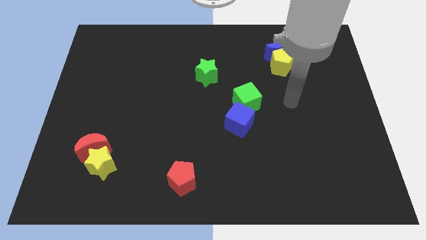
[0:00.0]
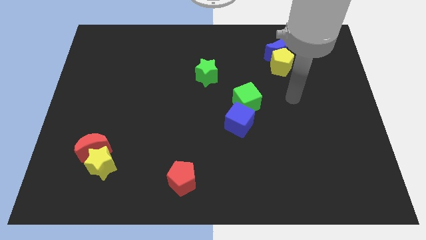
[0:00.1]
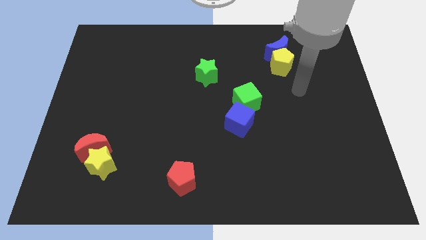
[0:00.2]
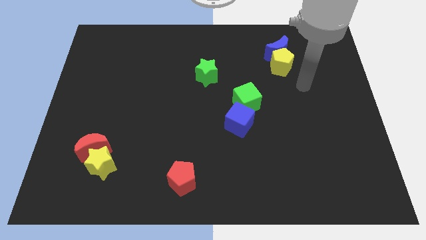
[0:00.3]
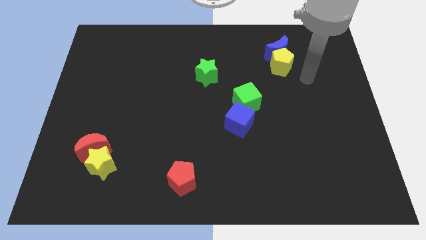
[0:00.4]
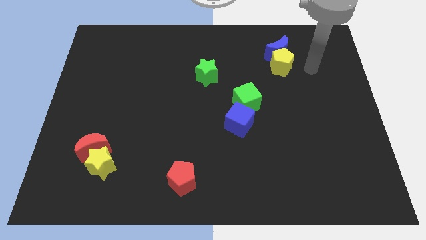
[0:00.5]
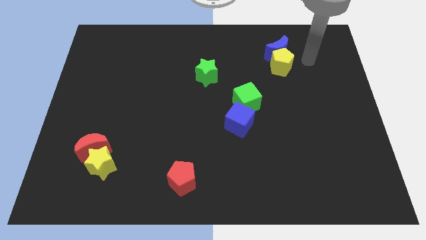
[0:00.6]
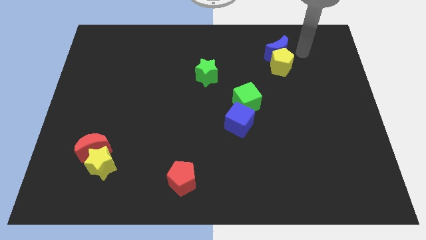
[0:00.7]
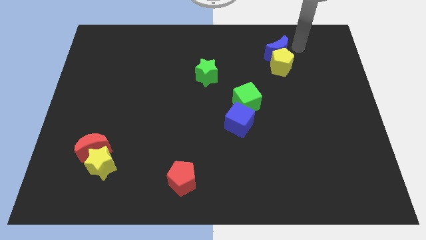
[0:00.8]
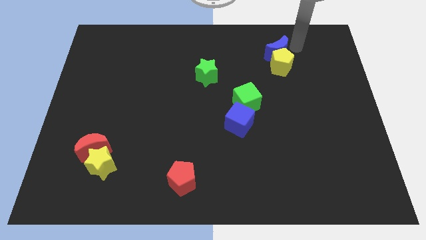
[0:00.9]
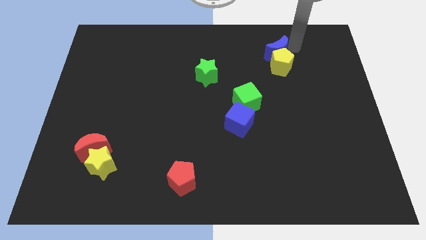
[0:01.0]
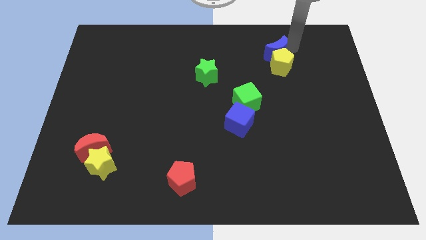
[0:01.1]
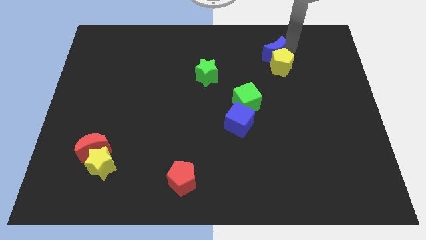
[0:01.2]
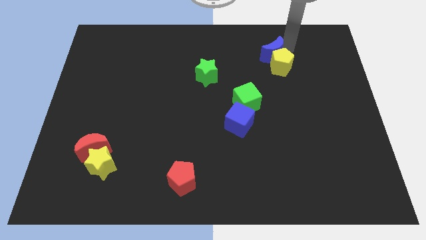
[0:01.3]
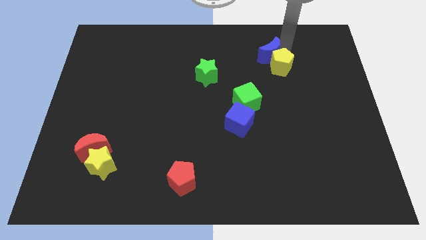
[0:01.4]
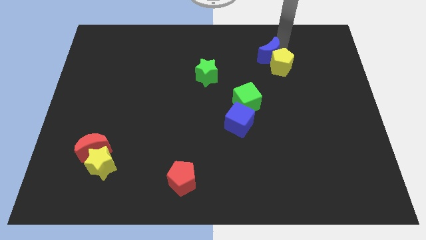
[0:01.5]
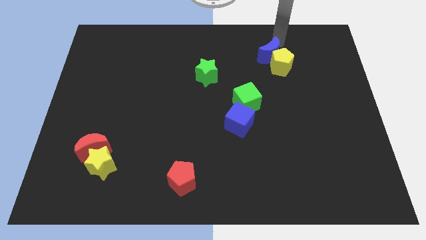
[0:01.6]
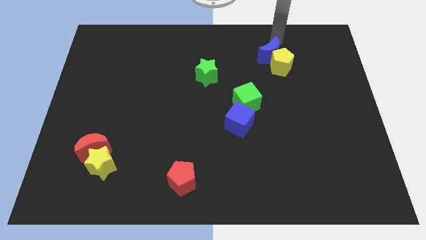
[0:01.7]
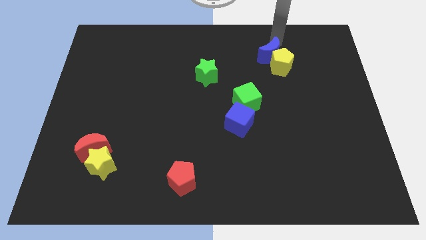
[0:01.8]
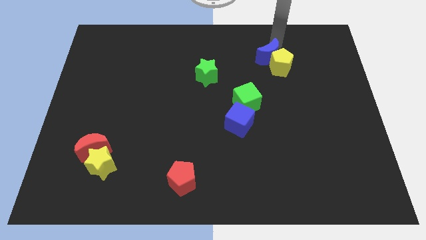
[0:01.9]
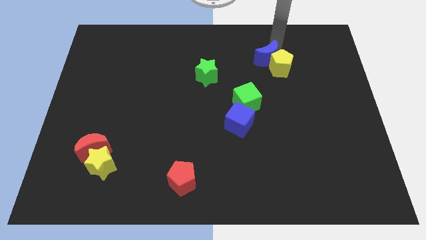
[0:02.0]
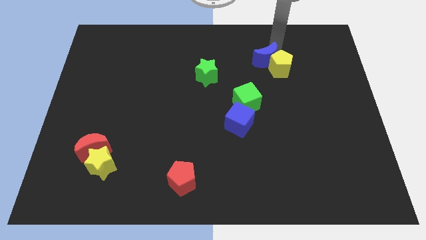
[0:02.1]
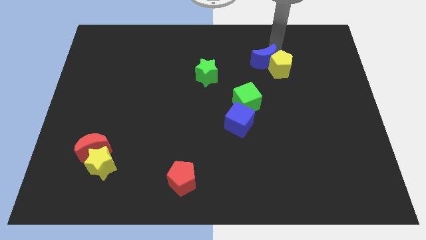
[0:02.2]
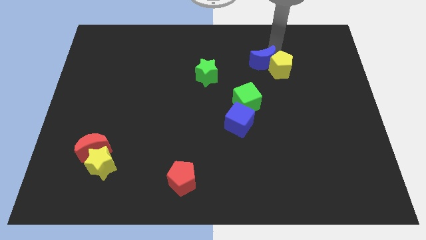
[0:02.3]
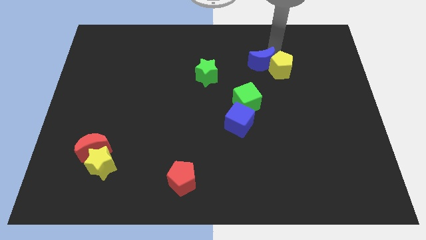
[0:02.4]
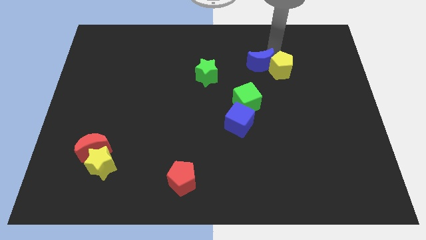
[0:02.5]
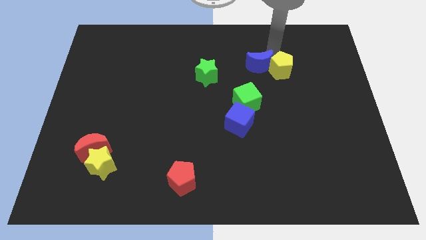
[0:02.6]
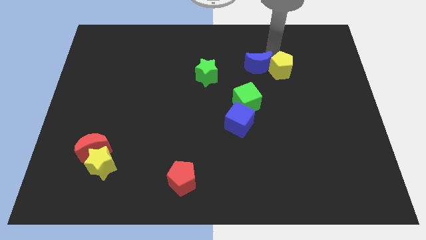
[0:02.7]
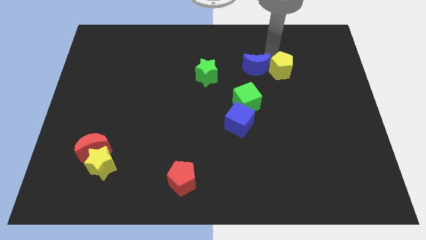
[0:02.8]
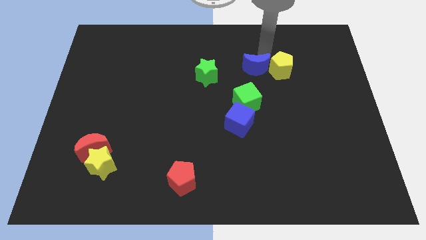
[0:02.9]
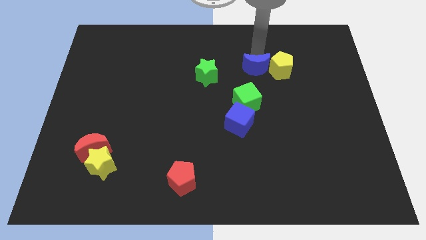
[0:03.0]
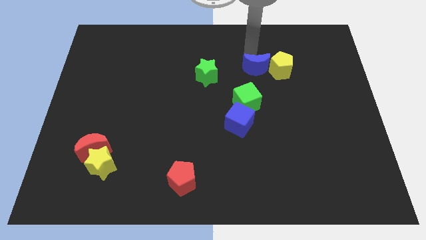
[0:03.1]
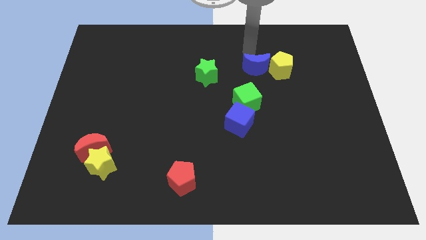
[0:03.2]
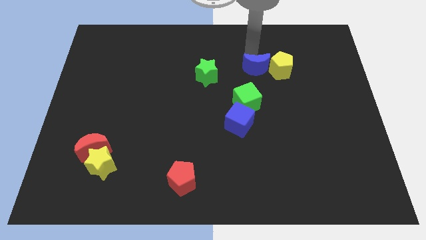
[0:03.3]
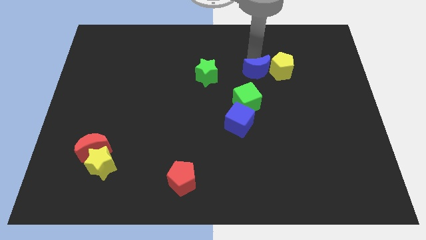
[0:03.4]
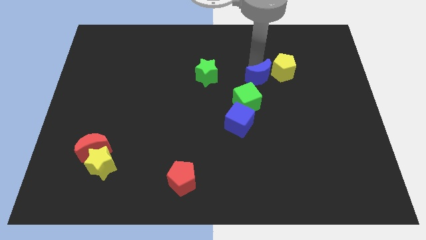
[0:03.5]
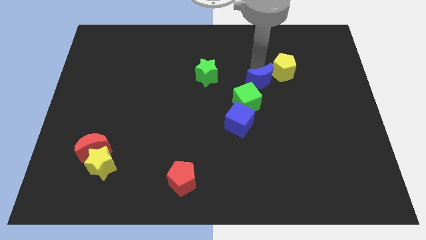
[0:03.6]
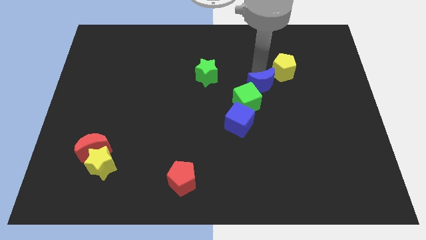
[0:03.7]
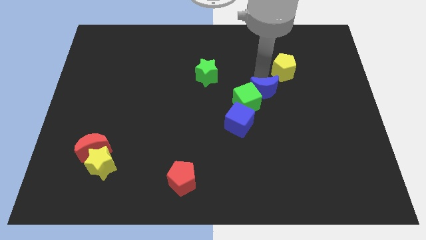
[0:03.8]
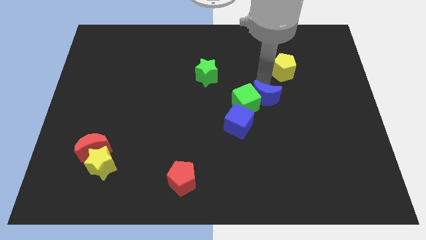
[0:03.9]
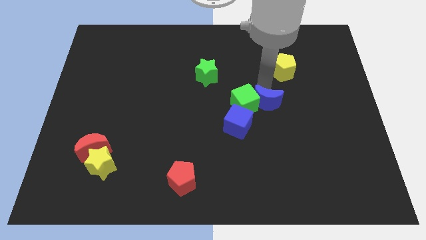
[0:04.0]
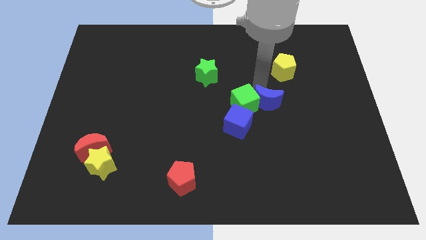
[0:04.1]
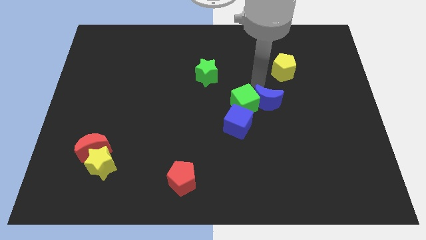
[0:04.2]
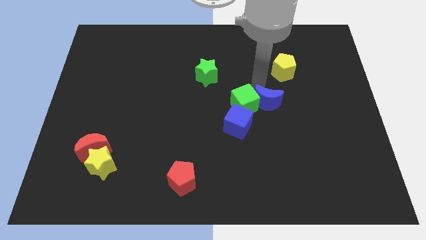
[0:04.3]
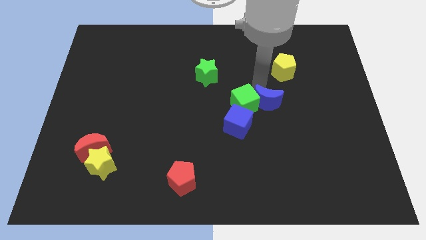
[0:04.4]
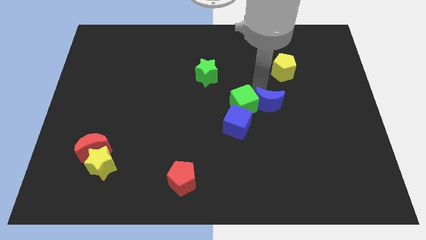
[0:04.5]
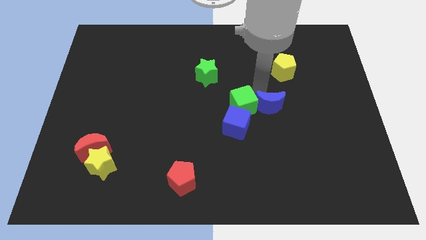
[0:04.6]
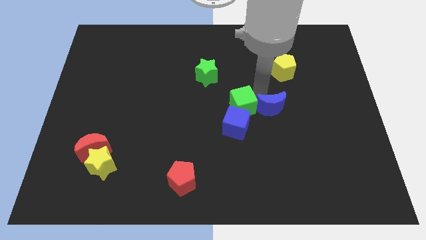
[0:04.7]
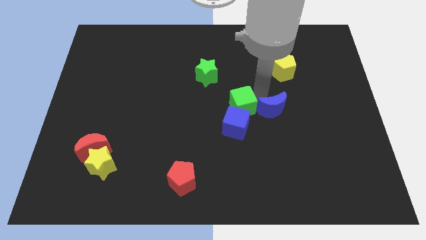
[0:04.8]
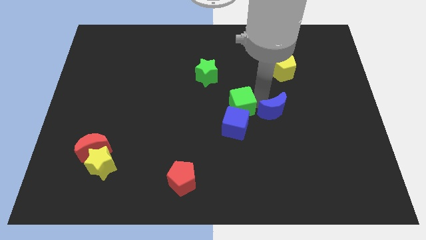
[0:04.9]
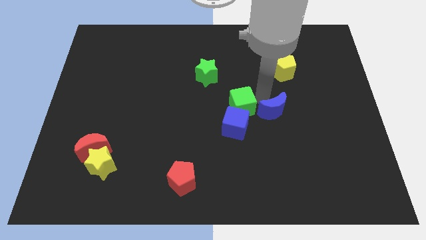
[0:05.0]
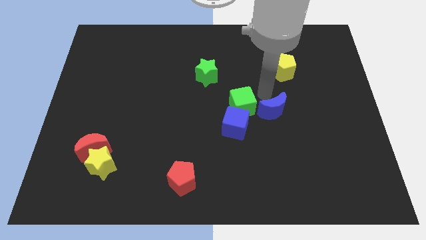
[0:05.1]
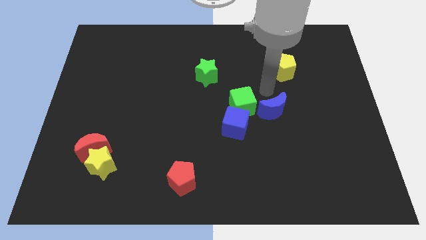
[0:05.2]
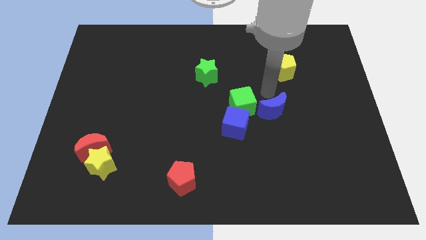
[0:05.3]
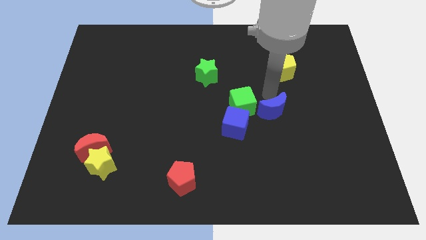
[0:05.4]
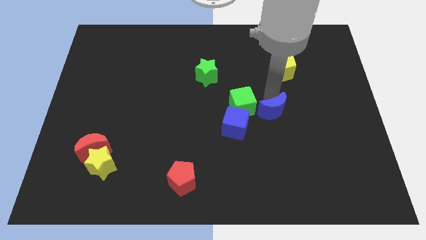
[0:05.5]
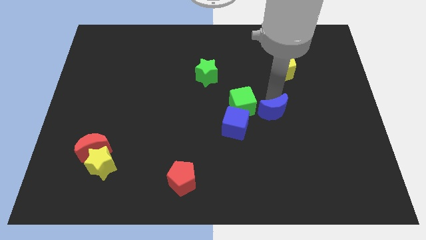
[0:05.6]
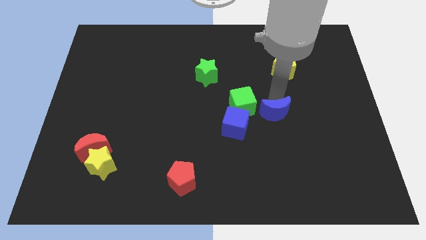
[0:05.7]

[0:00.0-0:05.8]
push the blue moon downwards

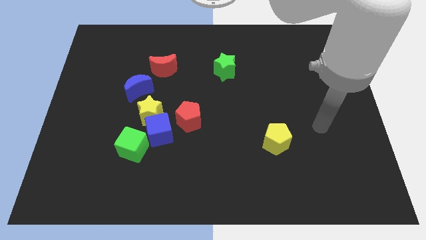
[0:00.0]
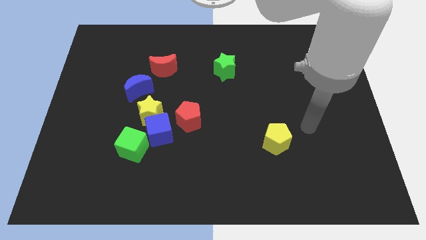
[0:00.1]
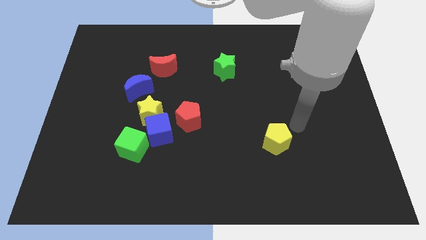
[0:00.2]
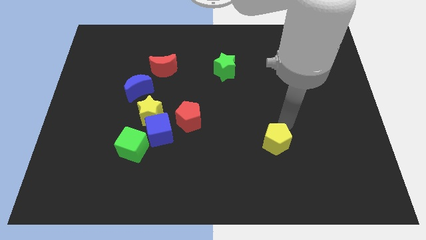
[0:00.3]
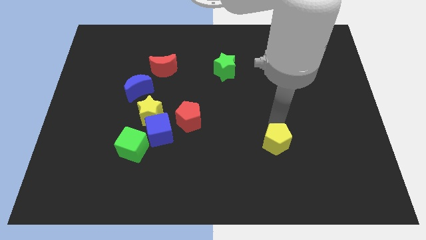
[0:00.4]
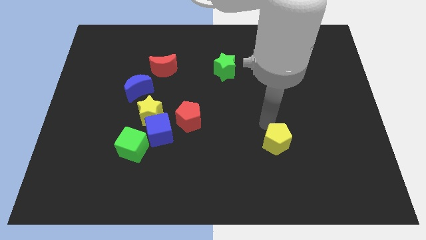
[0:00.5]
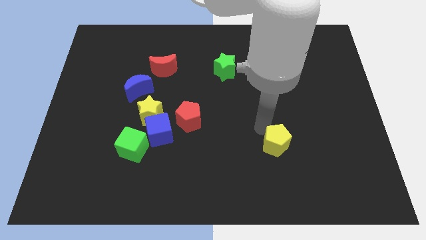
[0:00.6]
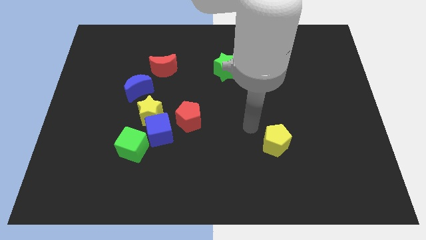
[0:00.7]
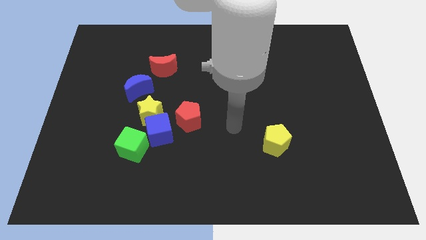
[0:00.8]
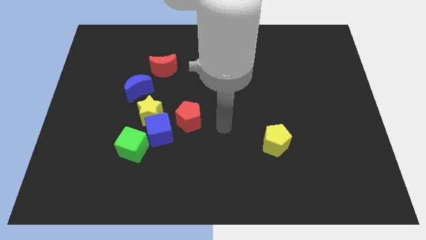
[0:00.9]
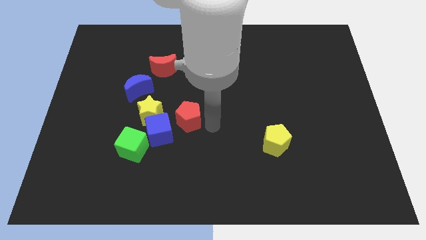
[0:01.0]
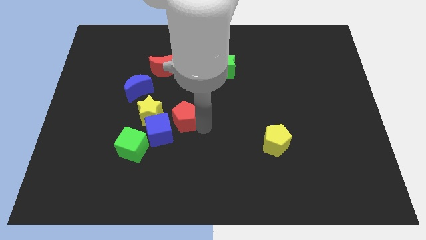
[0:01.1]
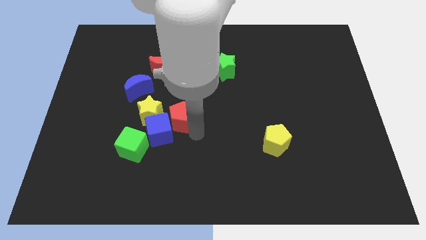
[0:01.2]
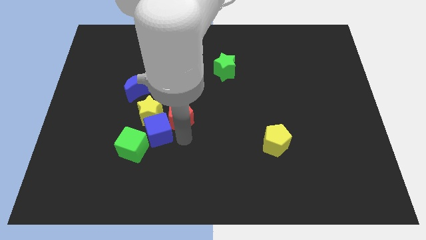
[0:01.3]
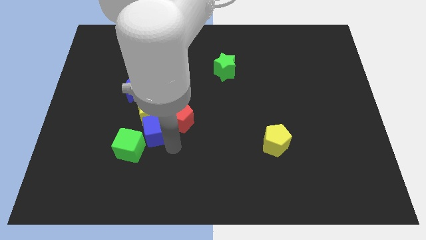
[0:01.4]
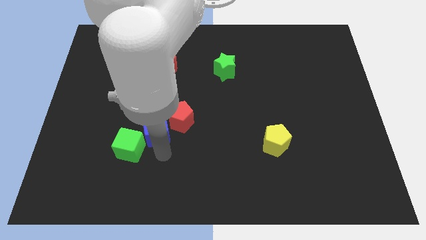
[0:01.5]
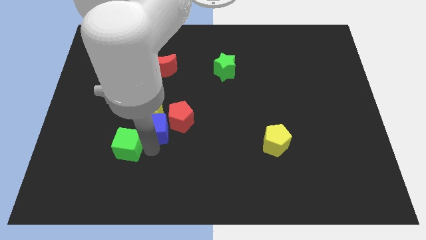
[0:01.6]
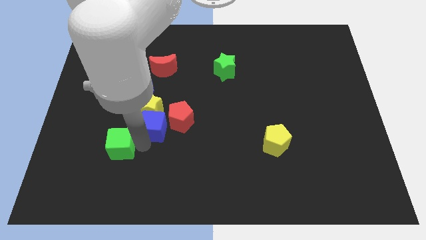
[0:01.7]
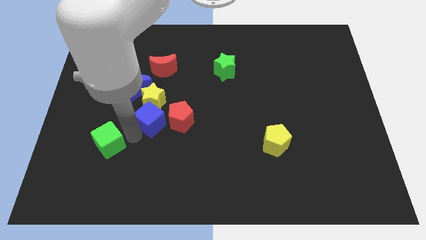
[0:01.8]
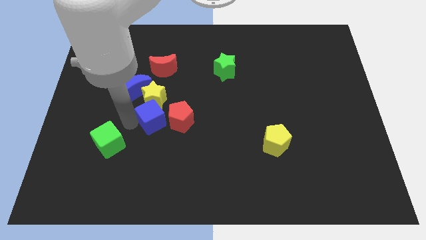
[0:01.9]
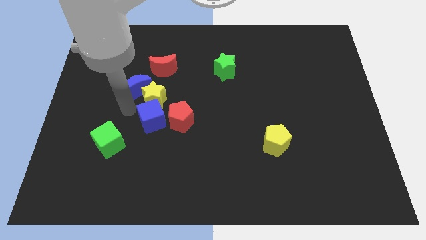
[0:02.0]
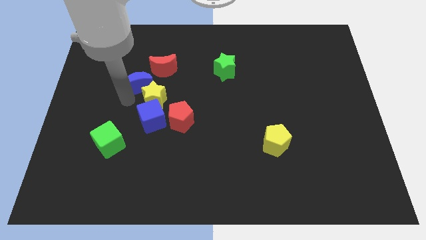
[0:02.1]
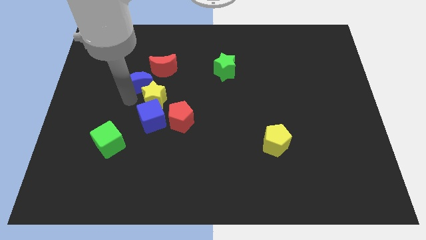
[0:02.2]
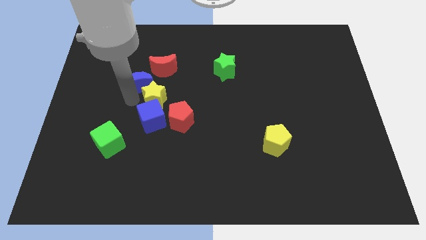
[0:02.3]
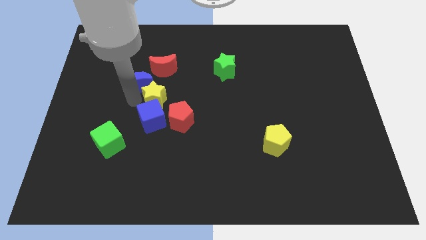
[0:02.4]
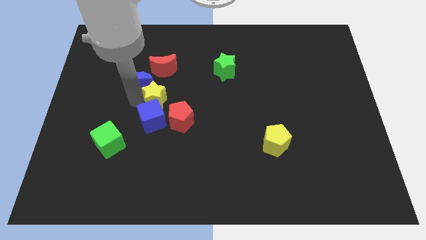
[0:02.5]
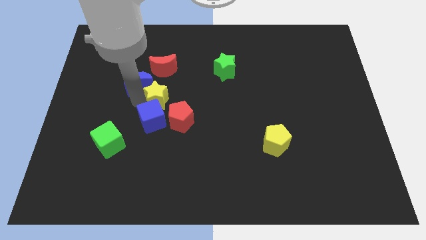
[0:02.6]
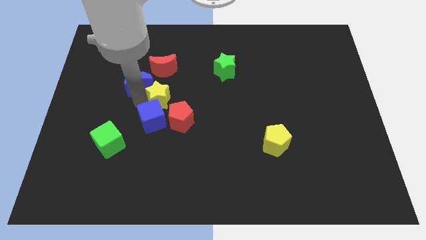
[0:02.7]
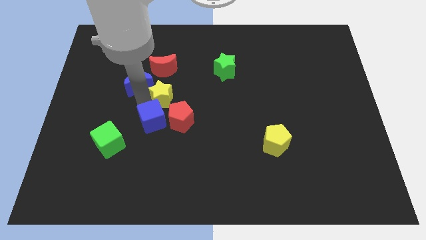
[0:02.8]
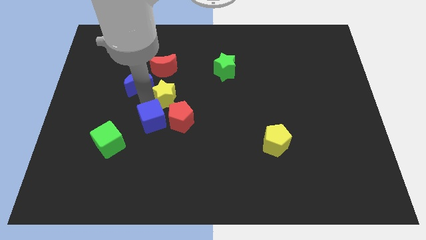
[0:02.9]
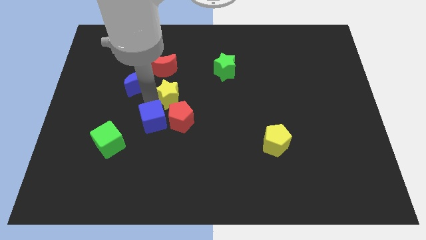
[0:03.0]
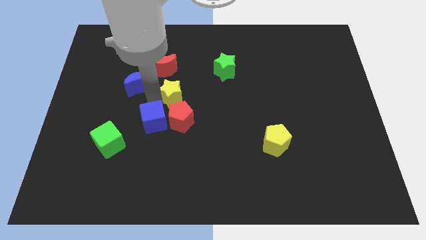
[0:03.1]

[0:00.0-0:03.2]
slightly move the yellow star up and then right
